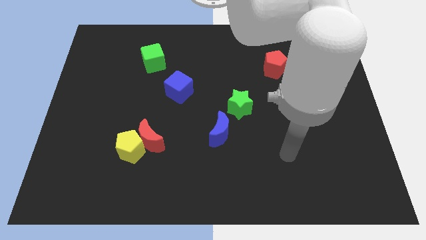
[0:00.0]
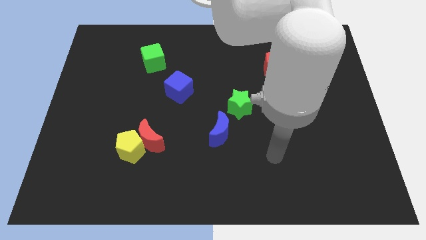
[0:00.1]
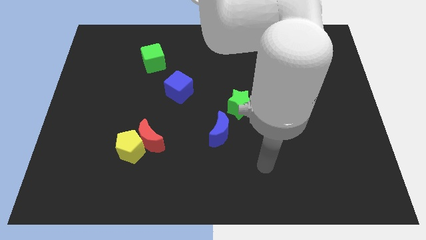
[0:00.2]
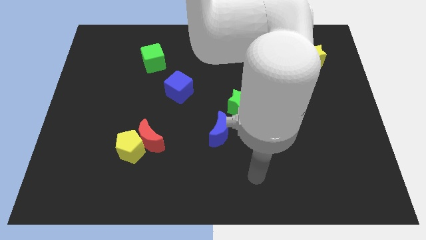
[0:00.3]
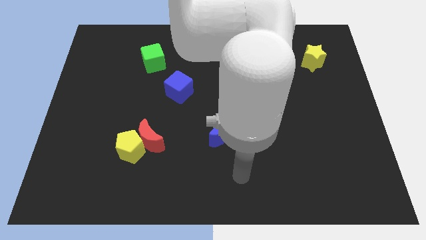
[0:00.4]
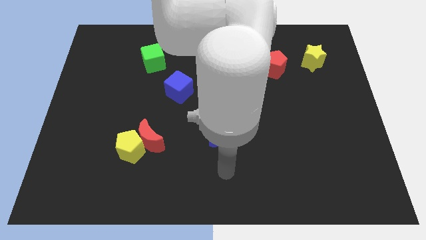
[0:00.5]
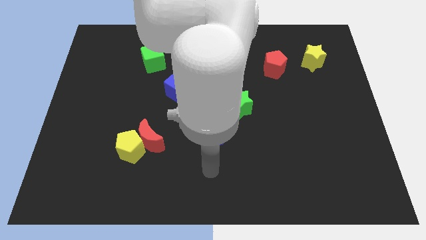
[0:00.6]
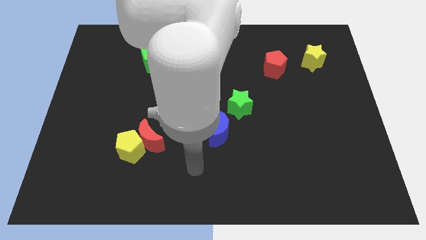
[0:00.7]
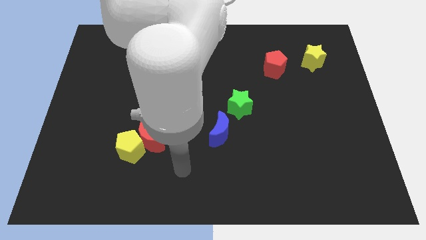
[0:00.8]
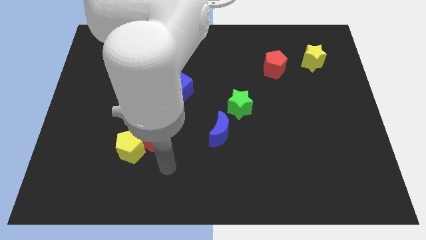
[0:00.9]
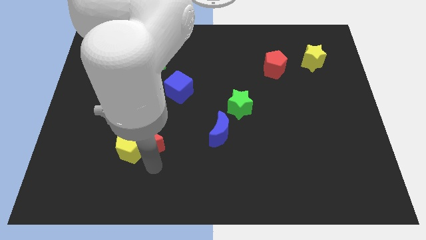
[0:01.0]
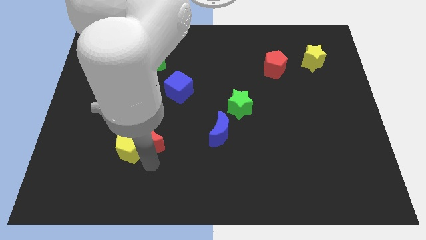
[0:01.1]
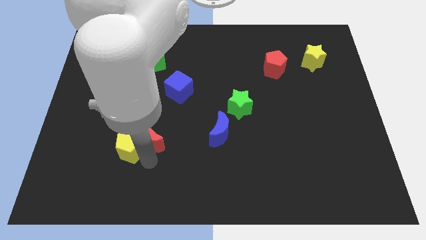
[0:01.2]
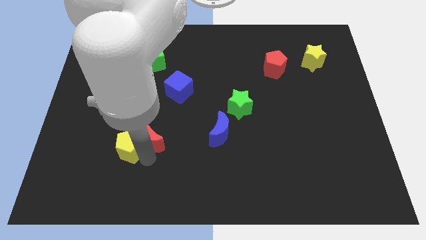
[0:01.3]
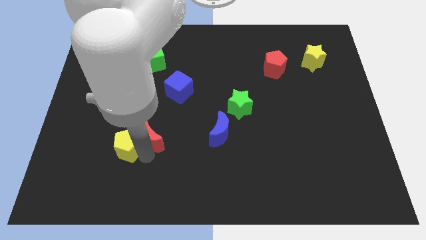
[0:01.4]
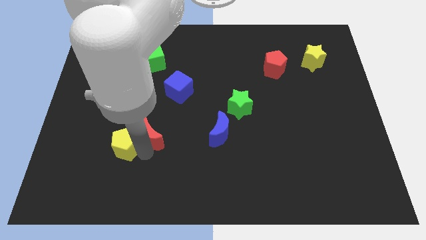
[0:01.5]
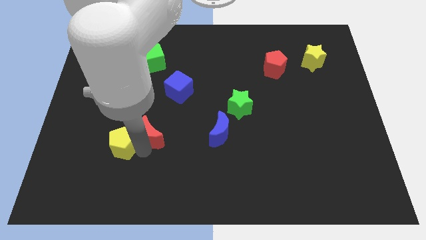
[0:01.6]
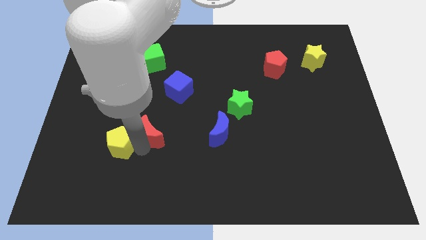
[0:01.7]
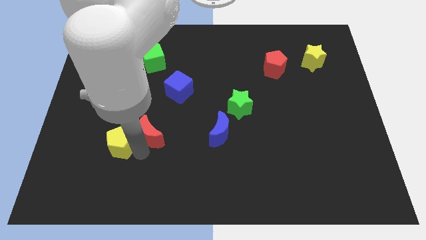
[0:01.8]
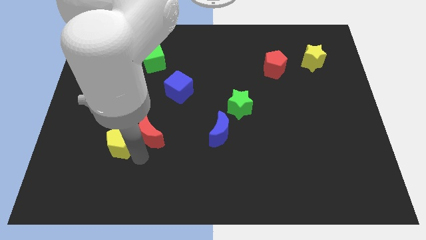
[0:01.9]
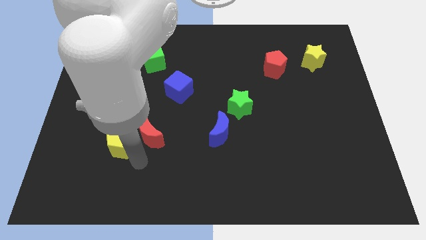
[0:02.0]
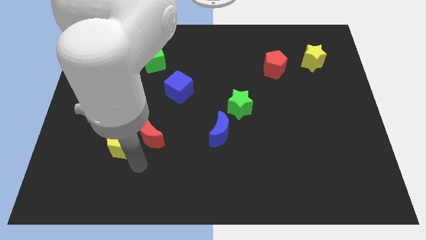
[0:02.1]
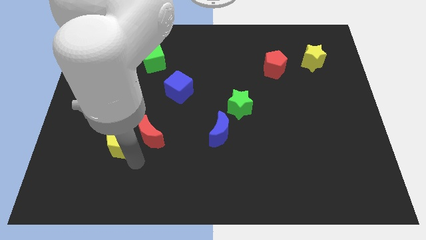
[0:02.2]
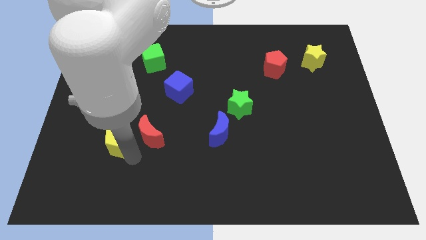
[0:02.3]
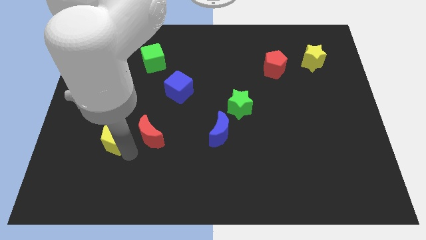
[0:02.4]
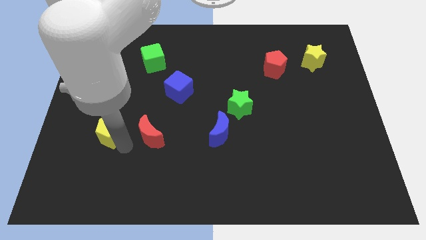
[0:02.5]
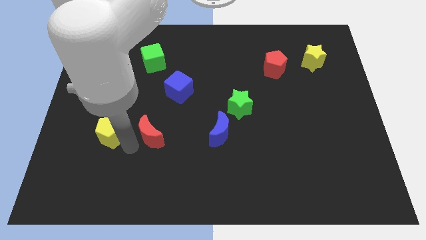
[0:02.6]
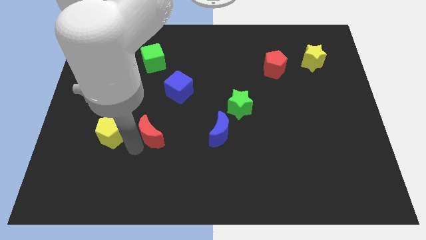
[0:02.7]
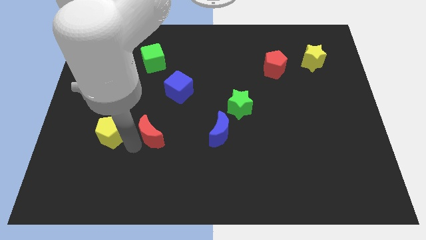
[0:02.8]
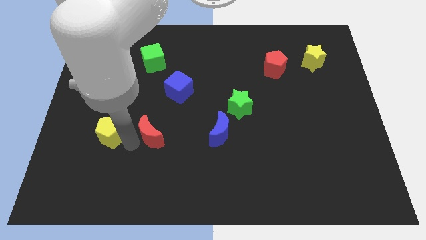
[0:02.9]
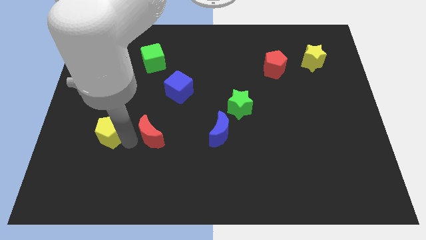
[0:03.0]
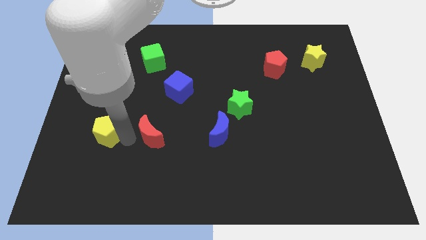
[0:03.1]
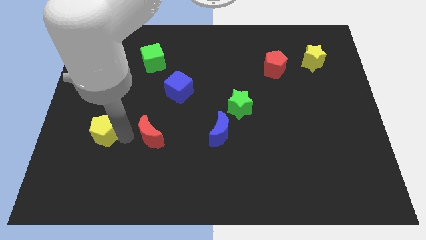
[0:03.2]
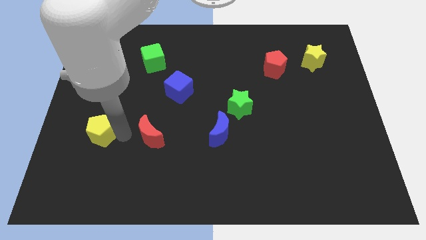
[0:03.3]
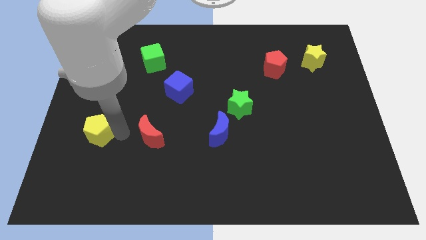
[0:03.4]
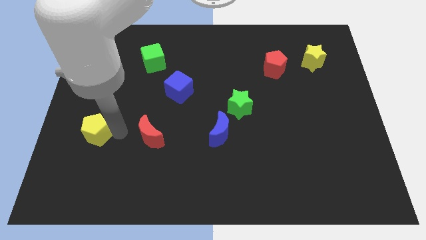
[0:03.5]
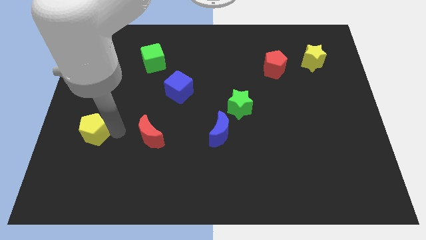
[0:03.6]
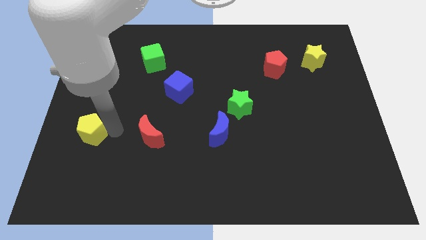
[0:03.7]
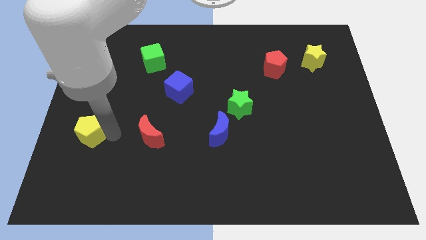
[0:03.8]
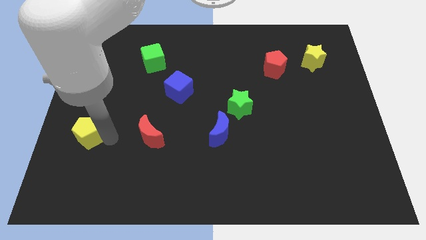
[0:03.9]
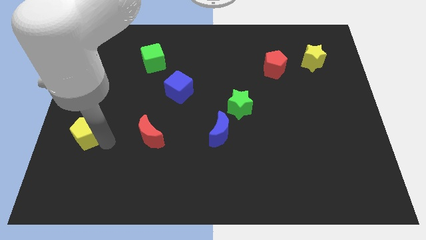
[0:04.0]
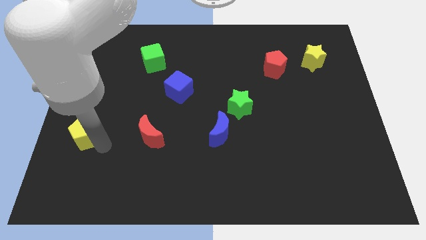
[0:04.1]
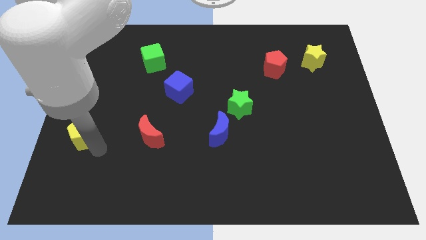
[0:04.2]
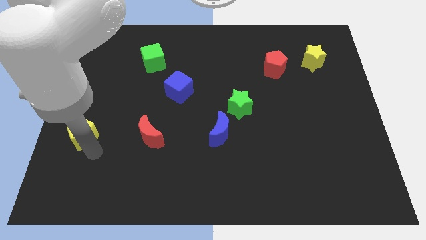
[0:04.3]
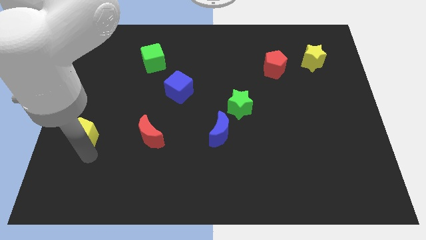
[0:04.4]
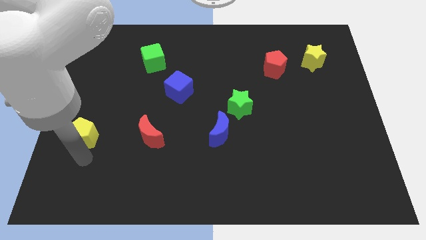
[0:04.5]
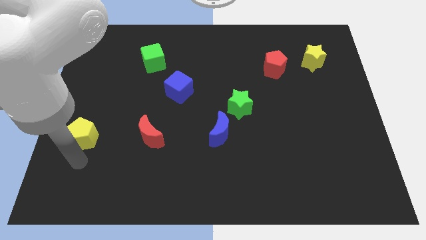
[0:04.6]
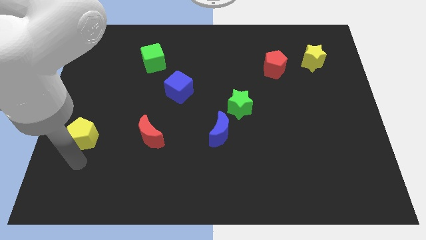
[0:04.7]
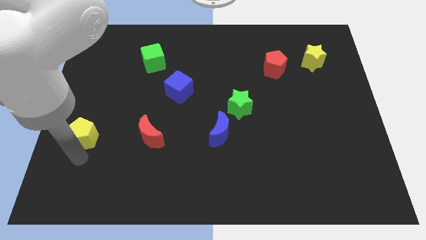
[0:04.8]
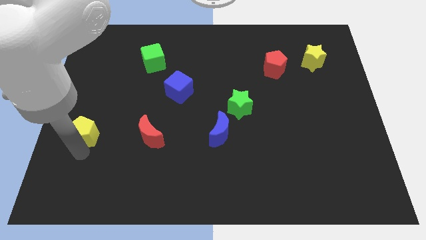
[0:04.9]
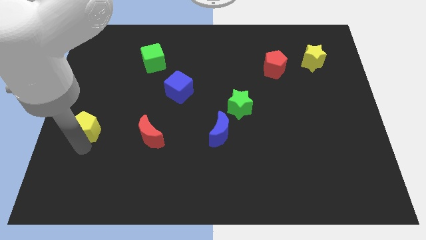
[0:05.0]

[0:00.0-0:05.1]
push the yellow pentagon to the left side of the board

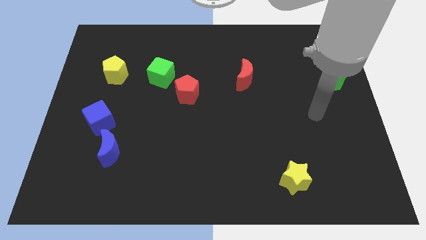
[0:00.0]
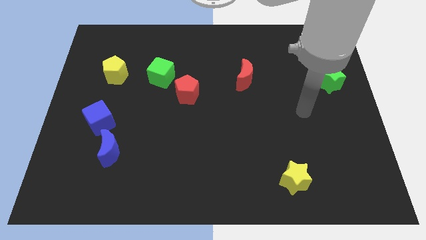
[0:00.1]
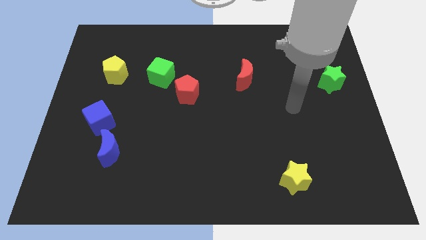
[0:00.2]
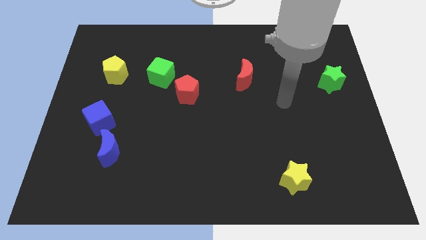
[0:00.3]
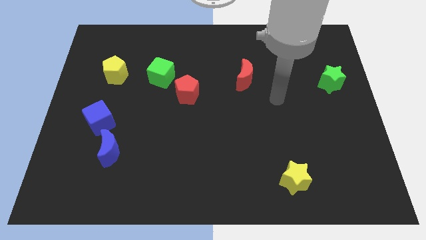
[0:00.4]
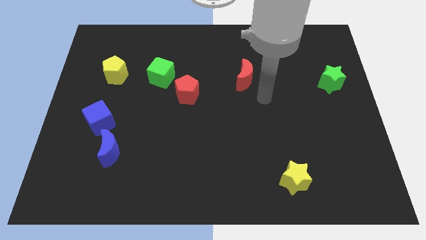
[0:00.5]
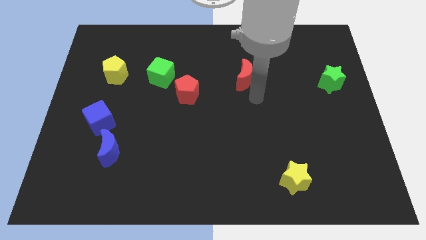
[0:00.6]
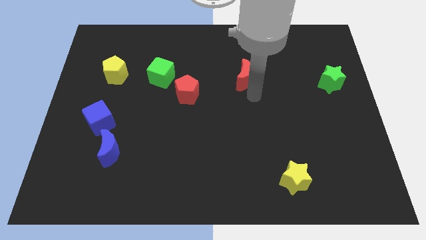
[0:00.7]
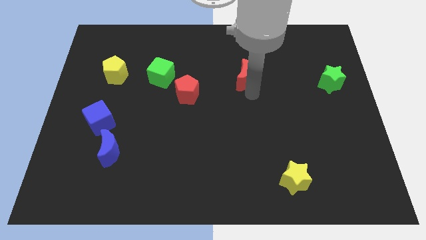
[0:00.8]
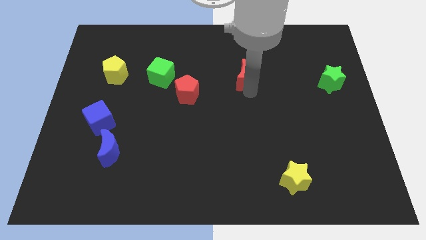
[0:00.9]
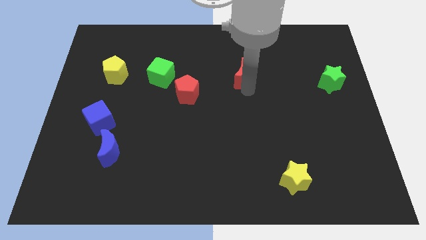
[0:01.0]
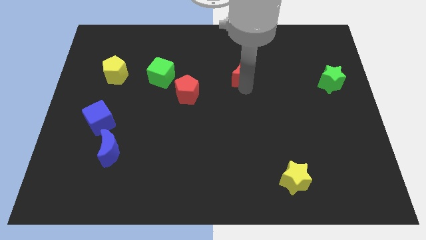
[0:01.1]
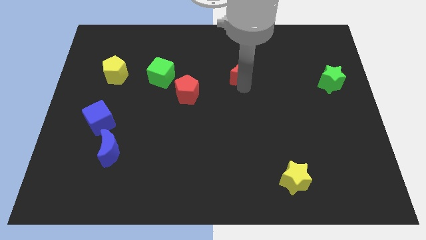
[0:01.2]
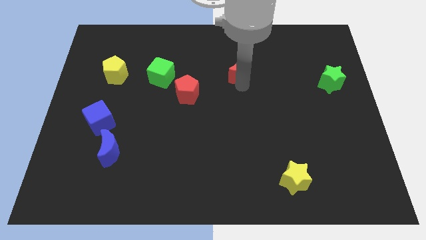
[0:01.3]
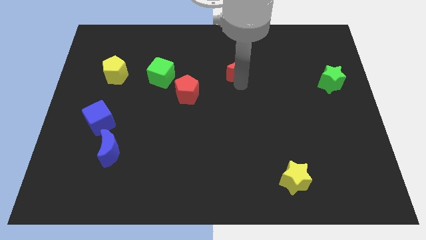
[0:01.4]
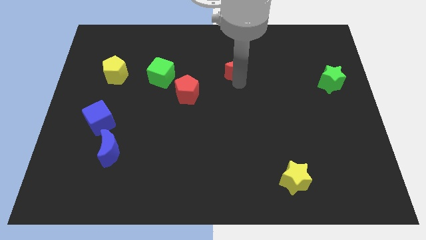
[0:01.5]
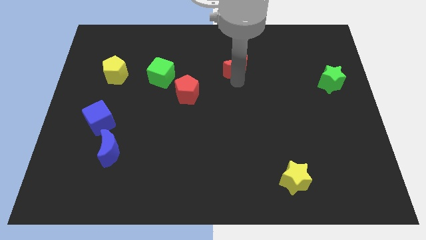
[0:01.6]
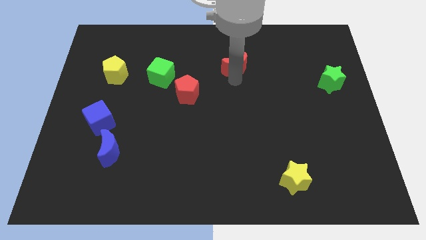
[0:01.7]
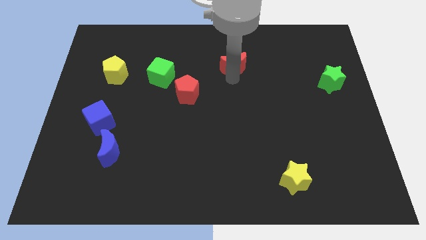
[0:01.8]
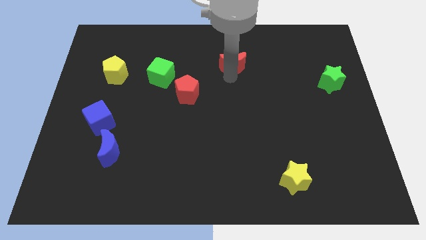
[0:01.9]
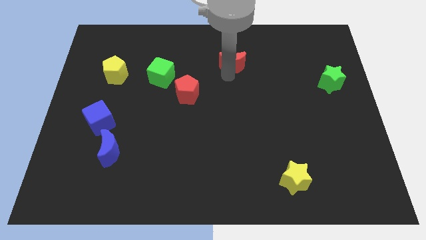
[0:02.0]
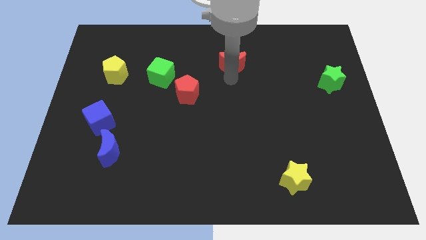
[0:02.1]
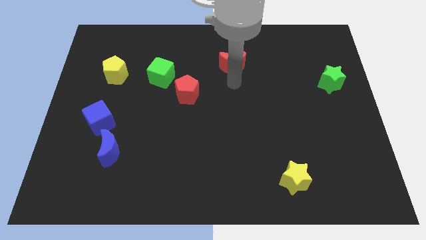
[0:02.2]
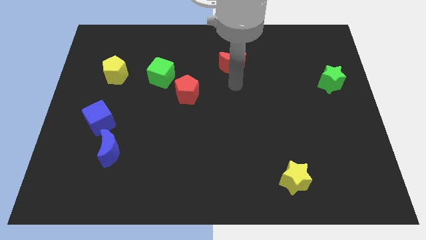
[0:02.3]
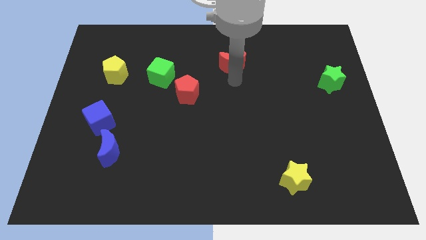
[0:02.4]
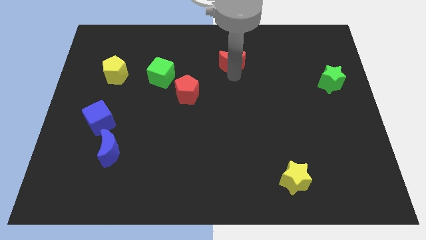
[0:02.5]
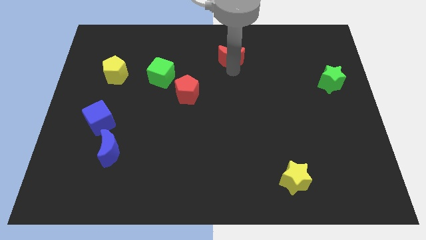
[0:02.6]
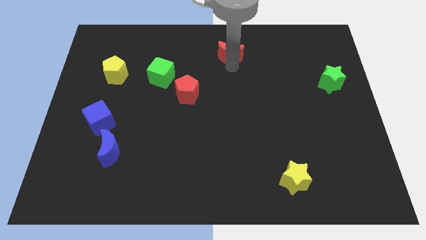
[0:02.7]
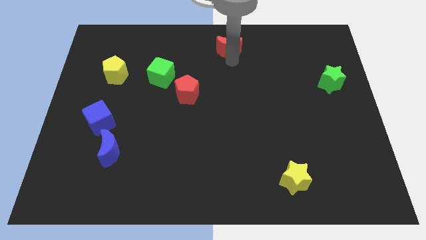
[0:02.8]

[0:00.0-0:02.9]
push the red moon to the top side
